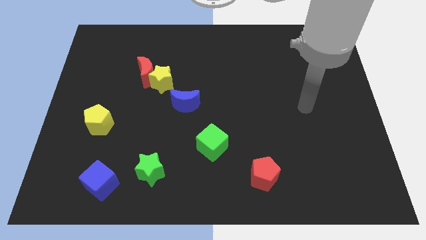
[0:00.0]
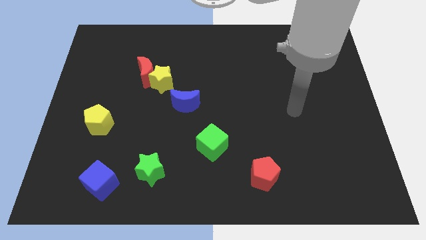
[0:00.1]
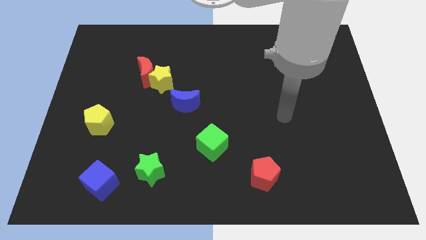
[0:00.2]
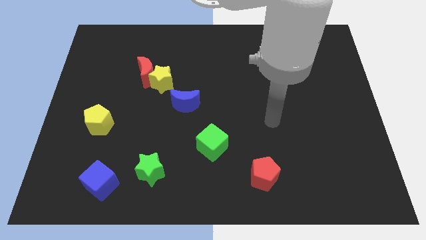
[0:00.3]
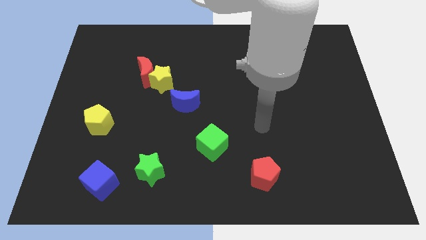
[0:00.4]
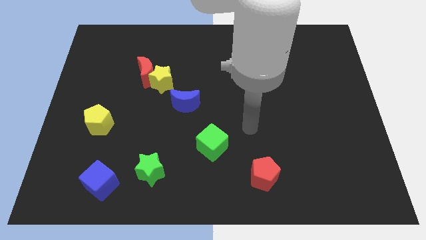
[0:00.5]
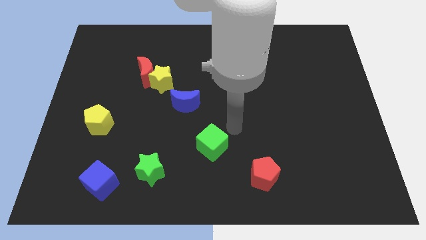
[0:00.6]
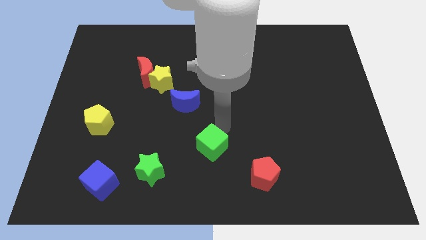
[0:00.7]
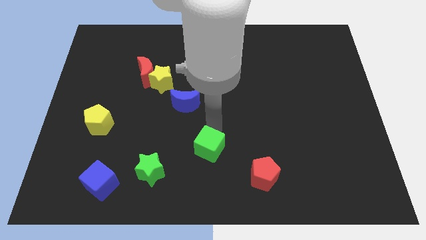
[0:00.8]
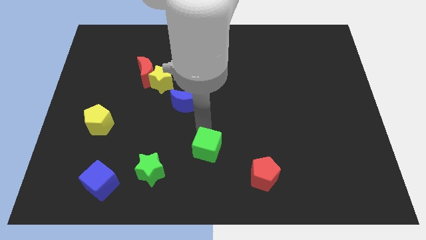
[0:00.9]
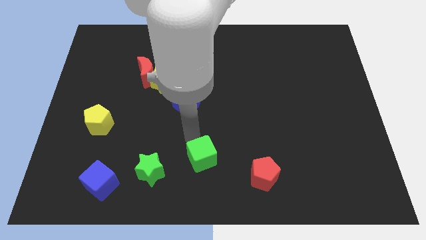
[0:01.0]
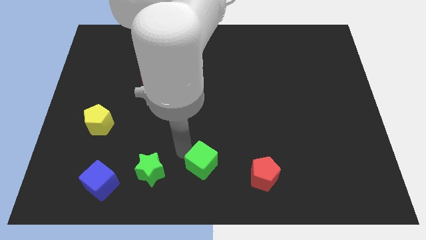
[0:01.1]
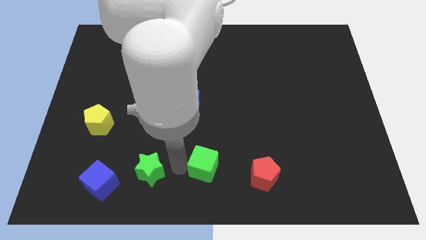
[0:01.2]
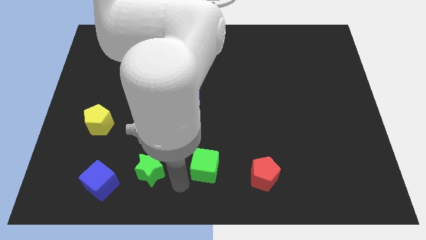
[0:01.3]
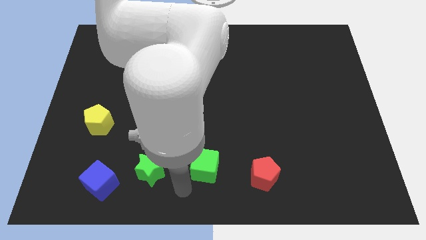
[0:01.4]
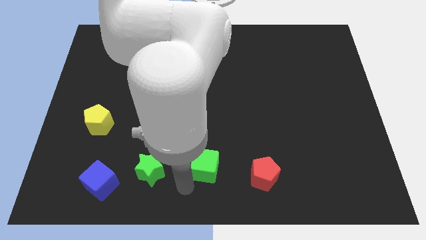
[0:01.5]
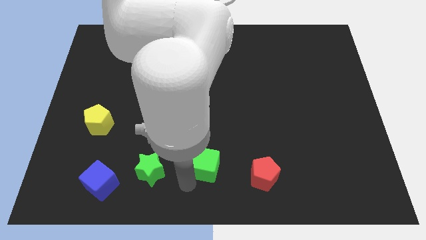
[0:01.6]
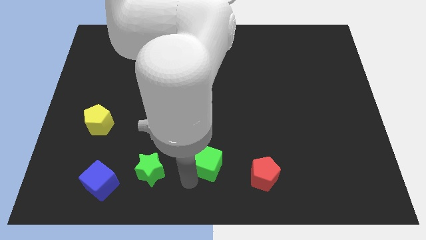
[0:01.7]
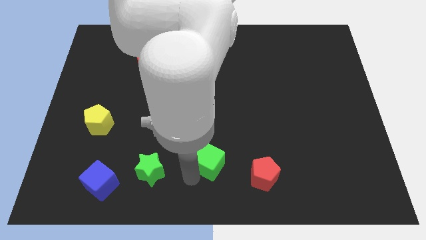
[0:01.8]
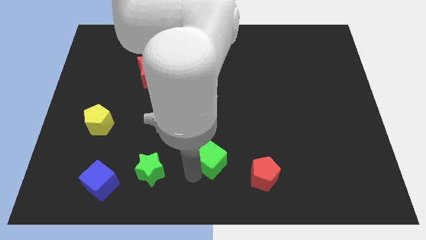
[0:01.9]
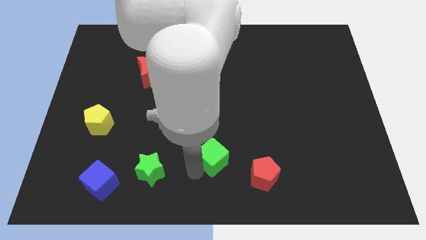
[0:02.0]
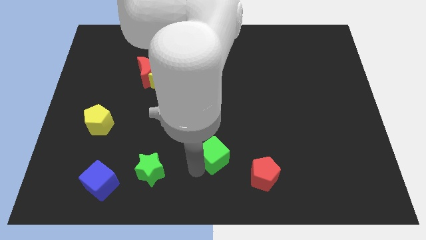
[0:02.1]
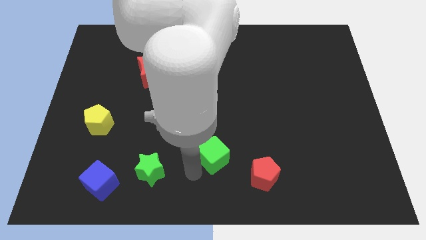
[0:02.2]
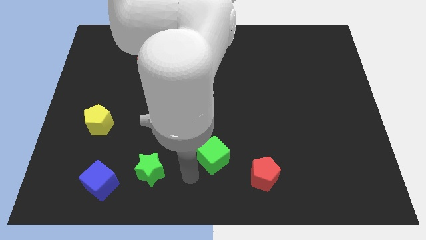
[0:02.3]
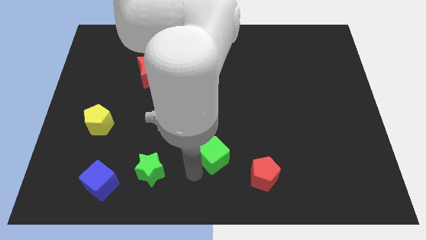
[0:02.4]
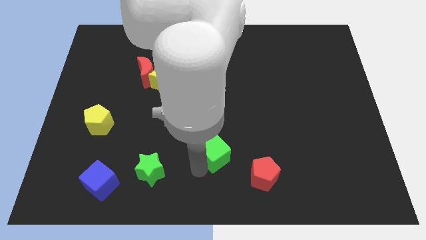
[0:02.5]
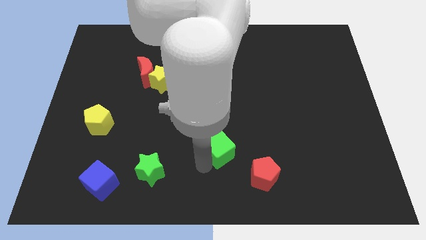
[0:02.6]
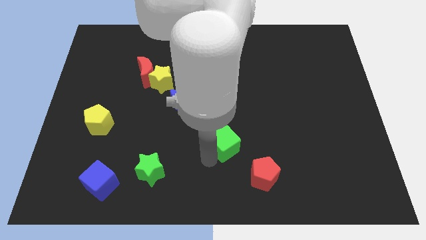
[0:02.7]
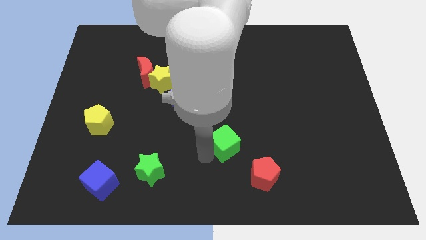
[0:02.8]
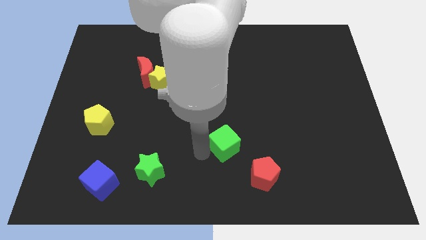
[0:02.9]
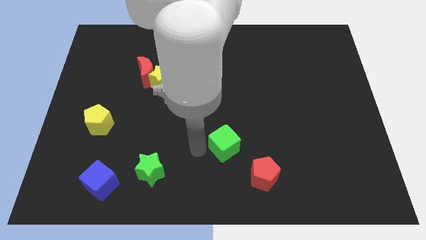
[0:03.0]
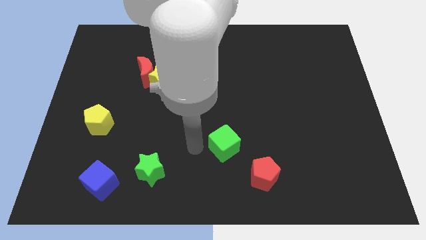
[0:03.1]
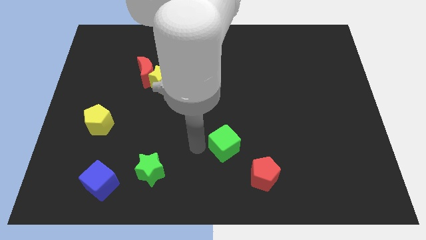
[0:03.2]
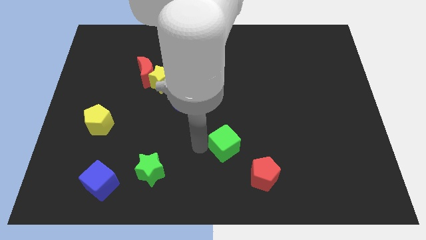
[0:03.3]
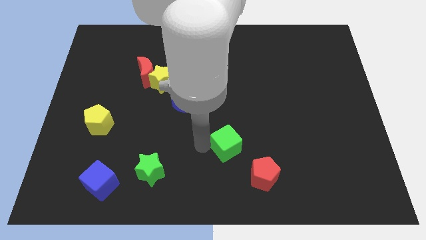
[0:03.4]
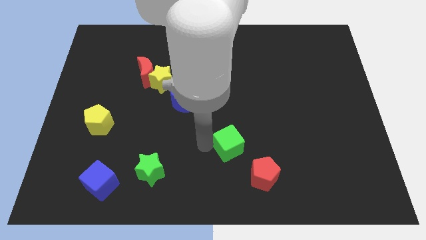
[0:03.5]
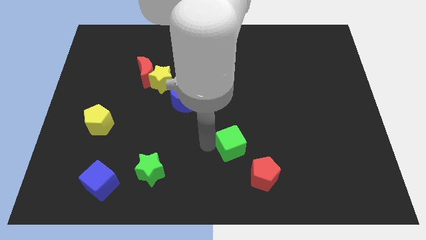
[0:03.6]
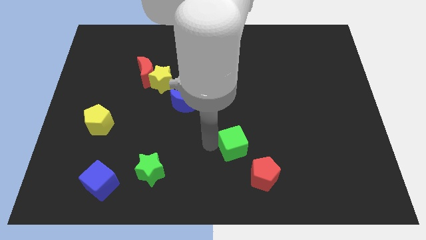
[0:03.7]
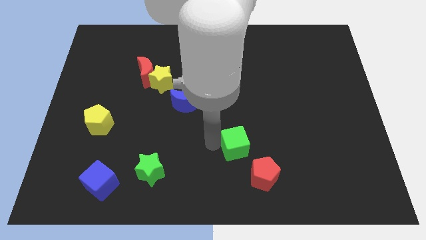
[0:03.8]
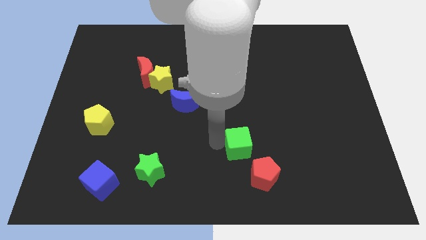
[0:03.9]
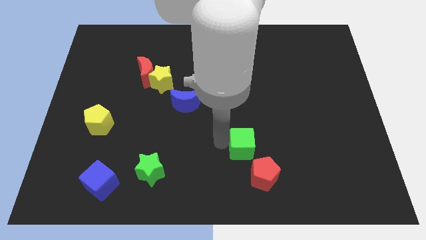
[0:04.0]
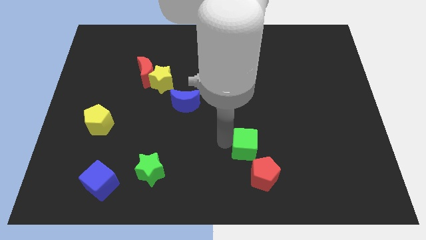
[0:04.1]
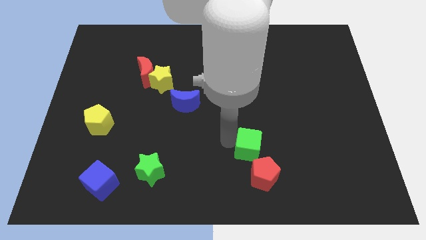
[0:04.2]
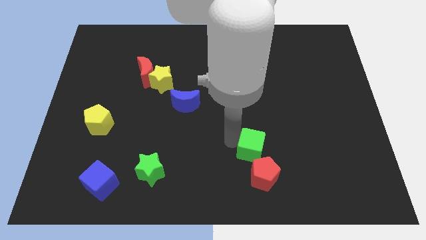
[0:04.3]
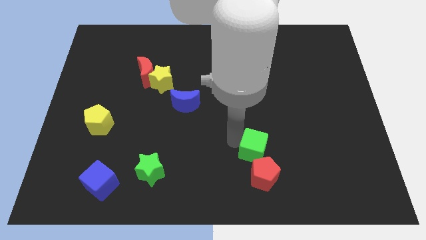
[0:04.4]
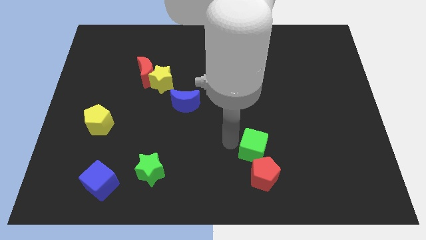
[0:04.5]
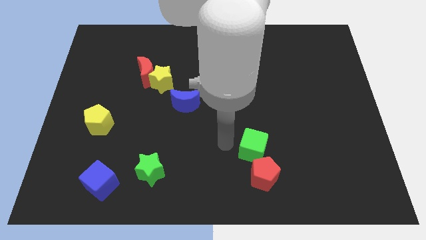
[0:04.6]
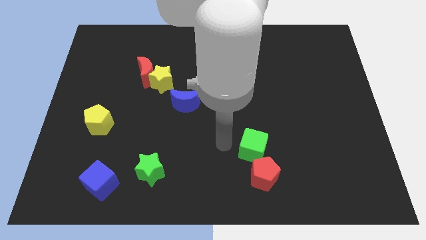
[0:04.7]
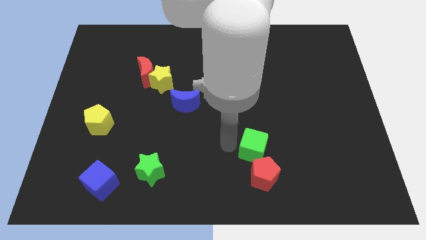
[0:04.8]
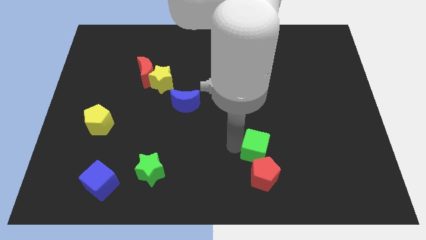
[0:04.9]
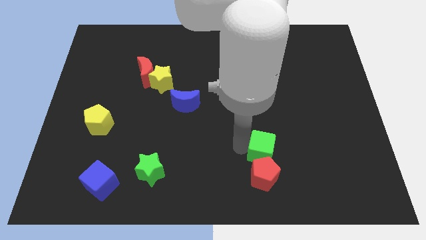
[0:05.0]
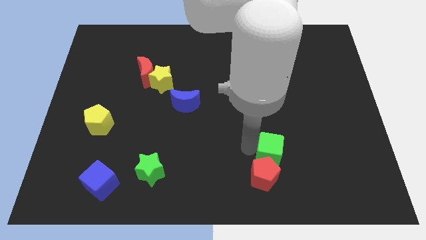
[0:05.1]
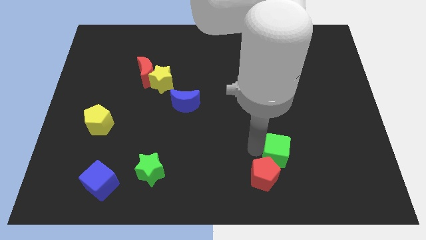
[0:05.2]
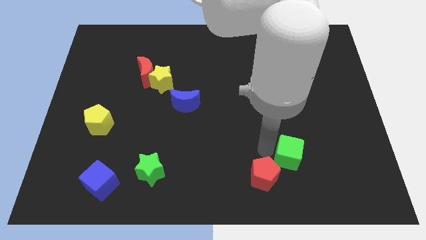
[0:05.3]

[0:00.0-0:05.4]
push the green cube to the right of the red pentagon
